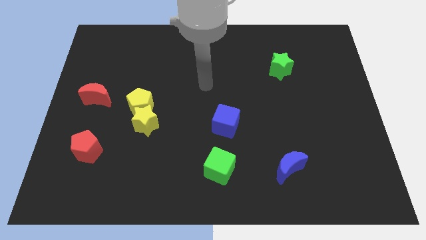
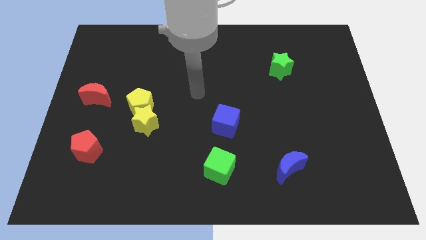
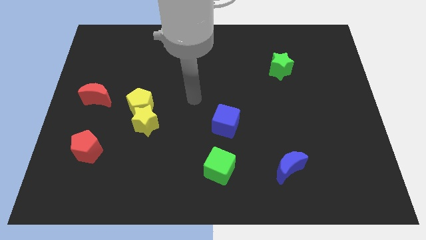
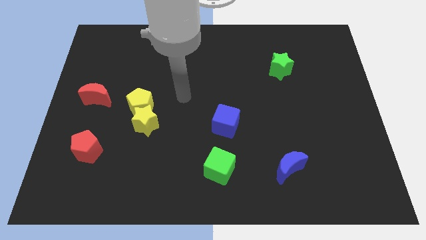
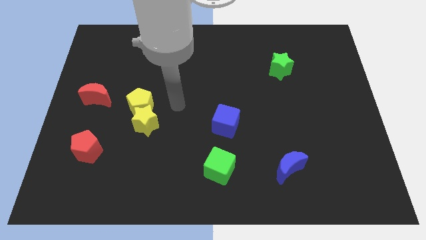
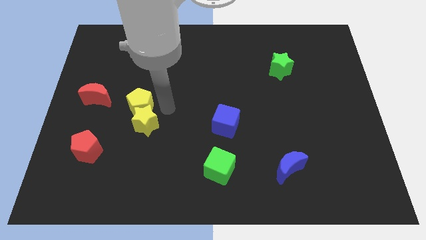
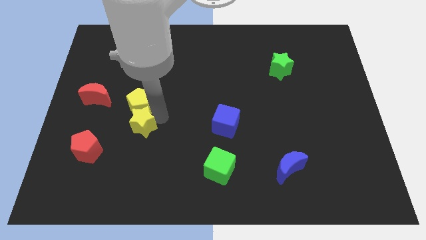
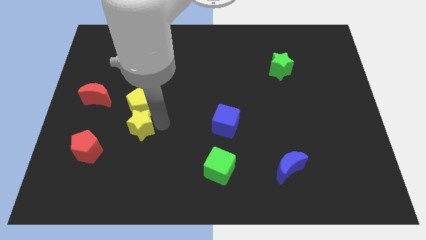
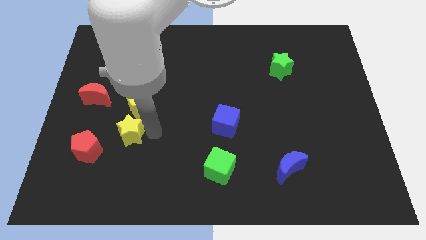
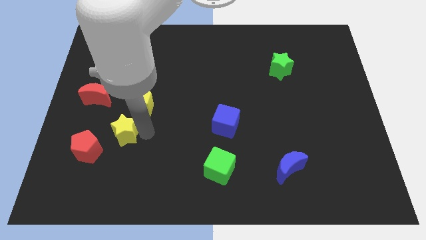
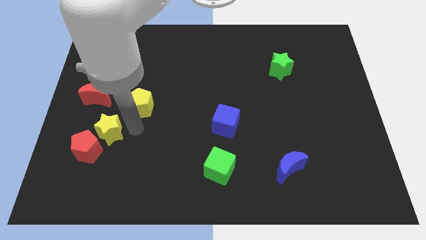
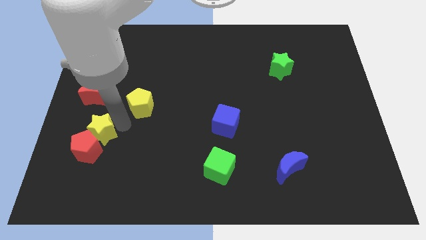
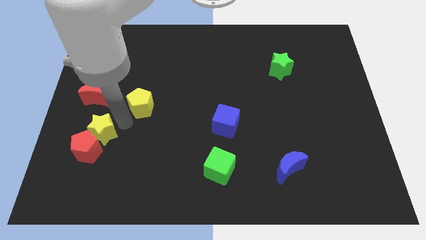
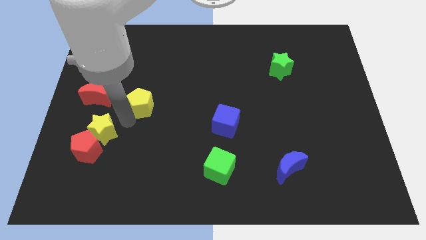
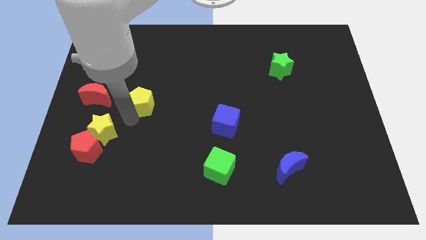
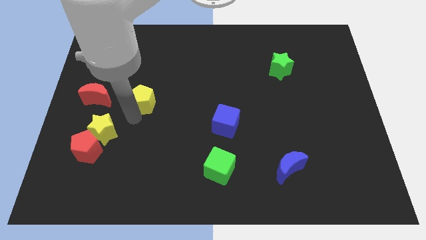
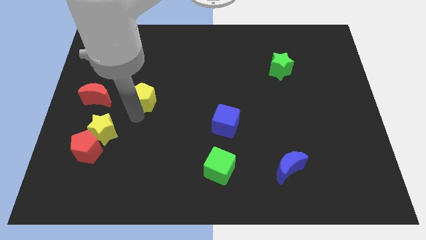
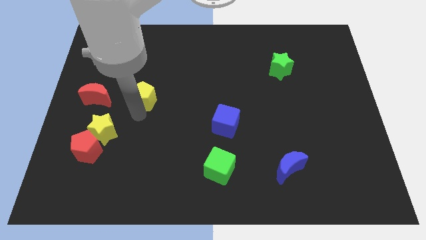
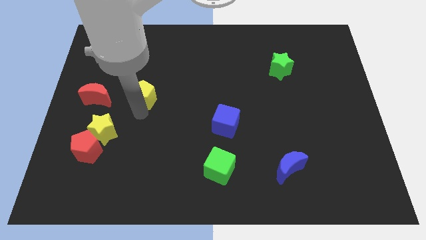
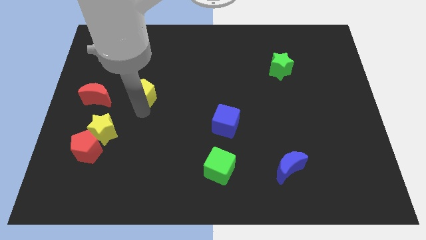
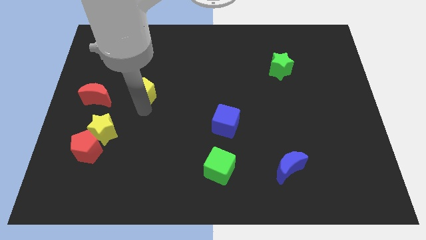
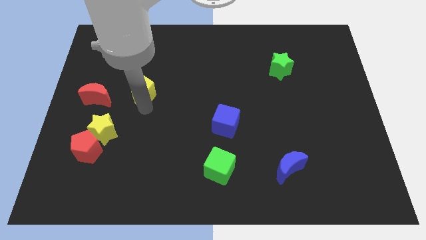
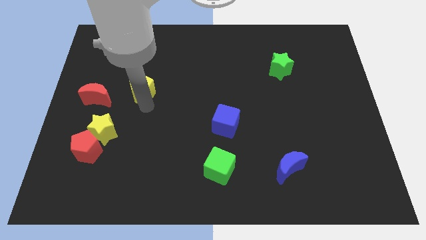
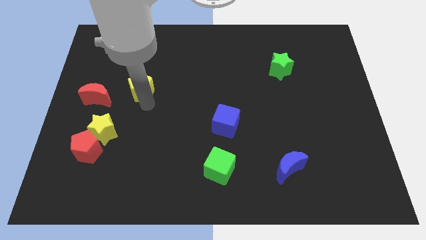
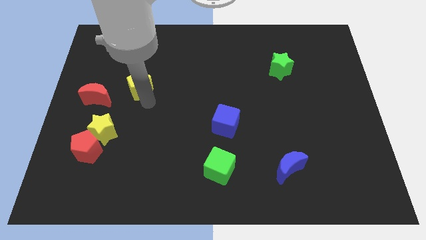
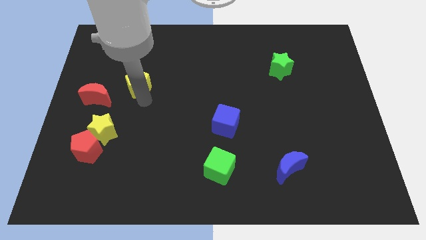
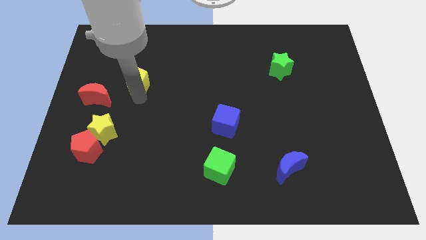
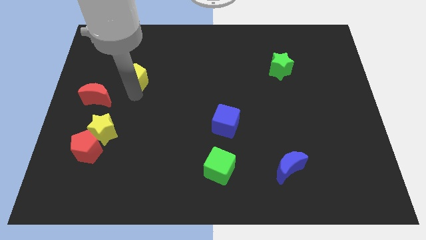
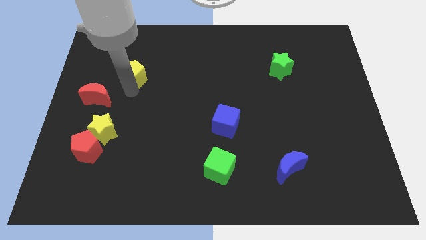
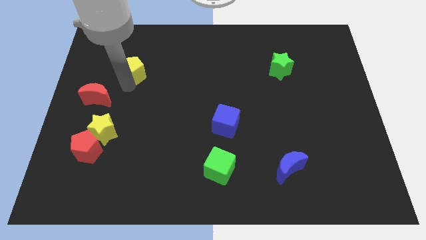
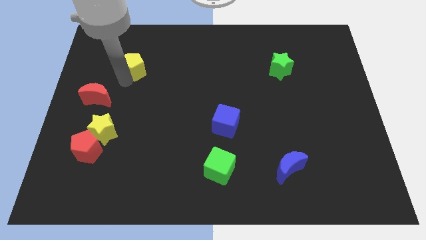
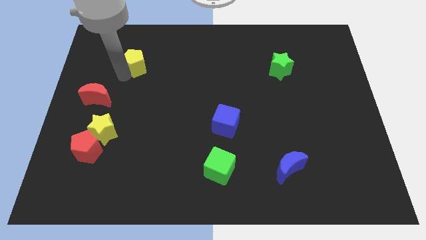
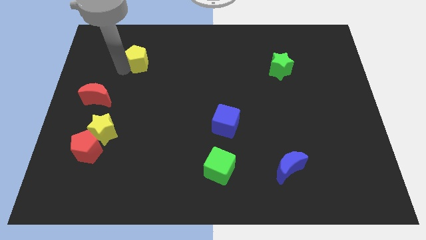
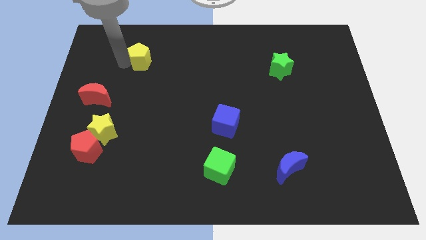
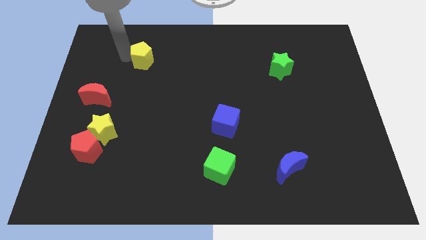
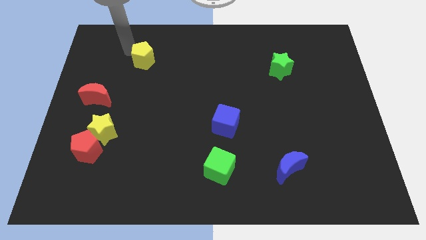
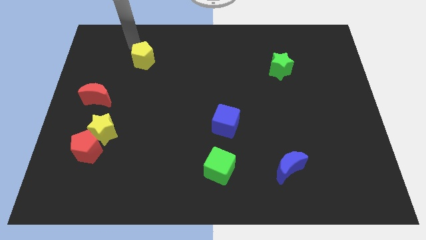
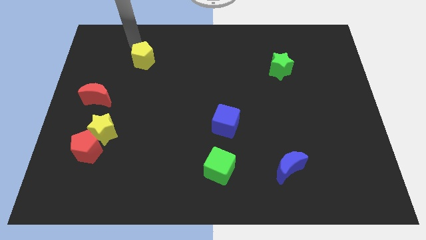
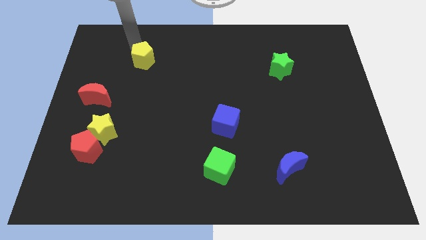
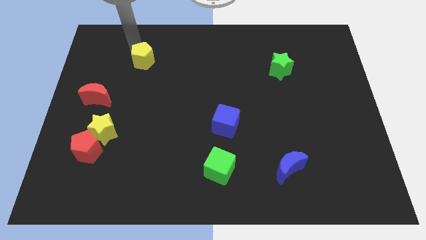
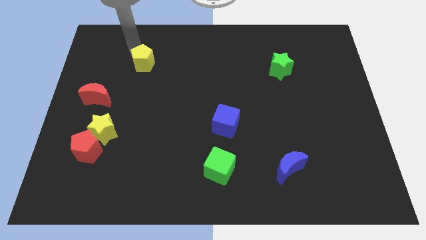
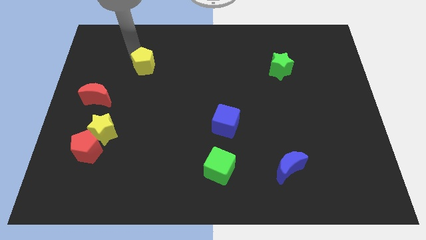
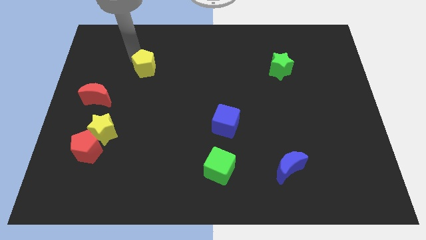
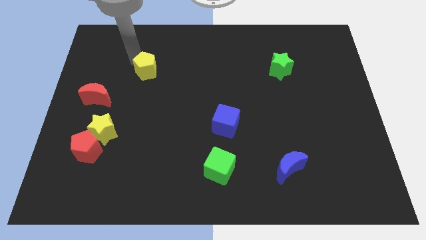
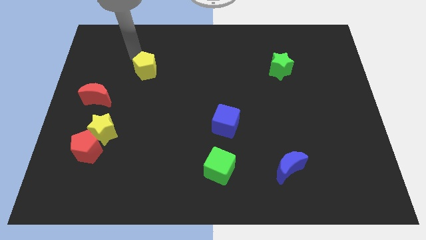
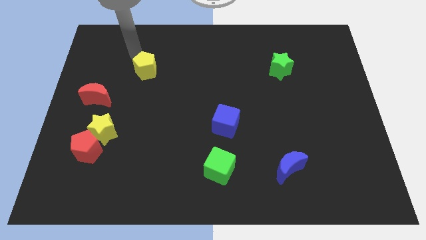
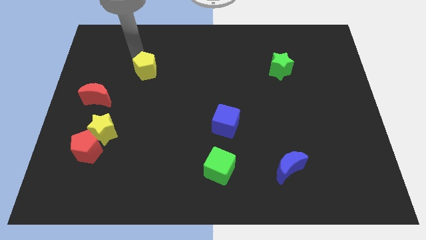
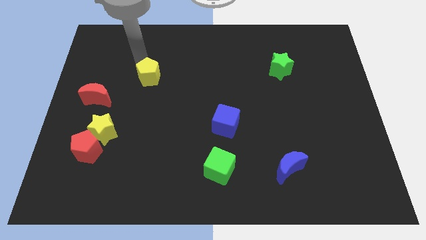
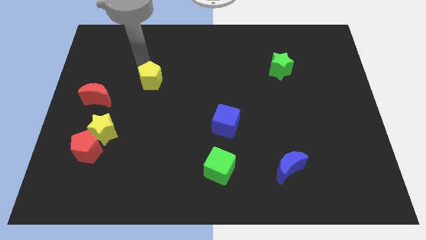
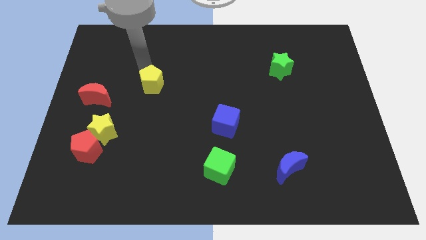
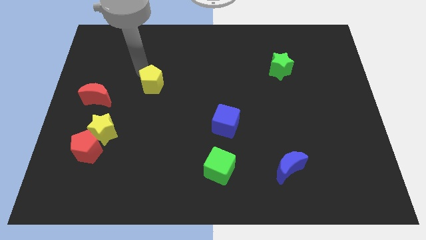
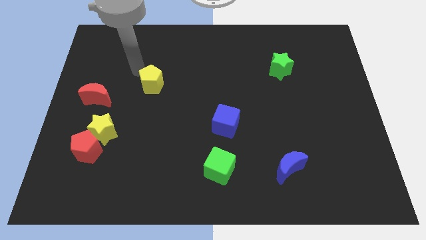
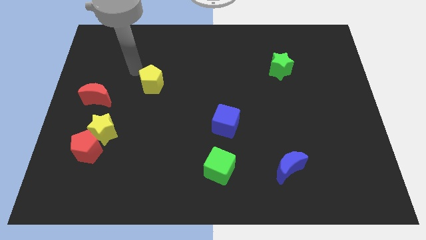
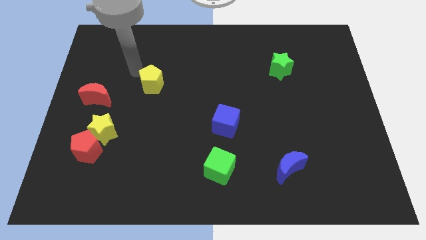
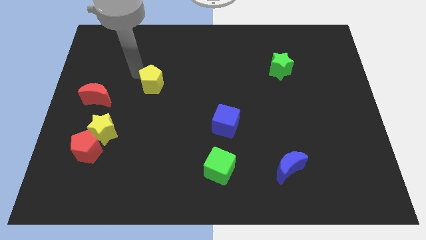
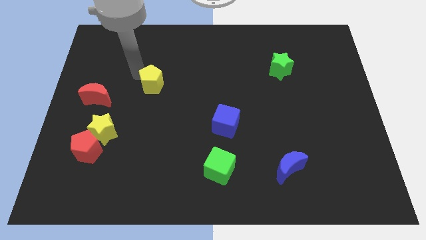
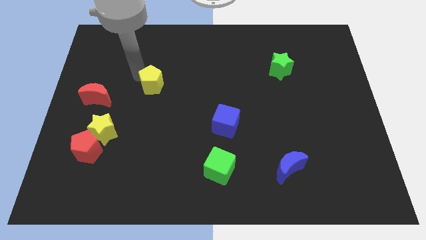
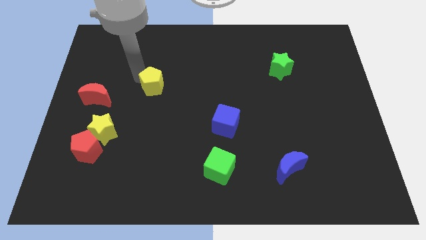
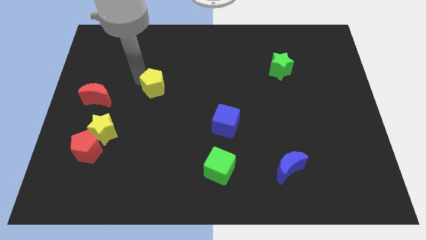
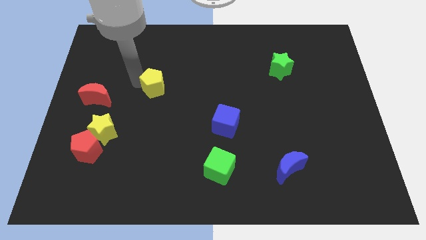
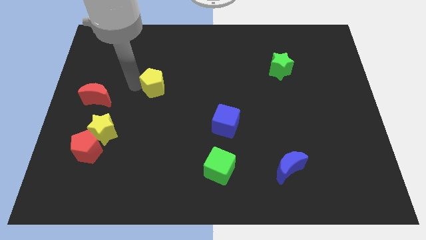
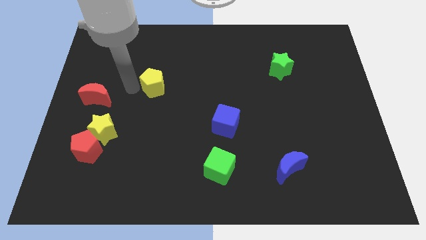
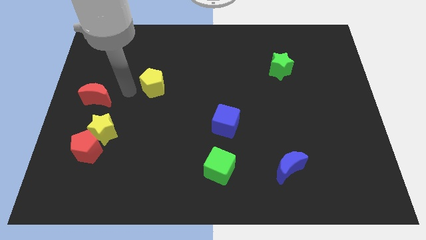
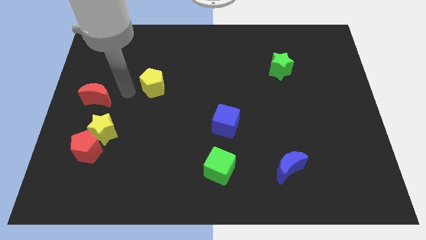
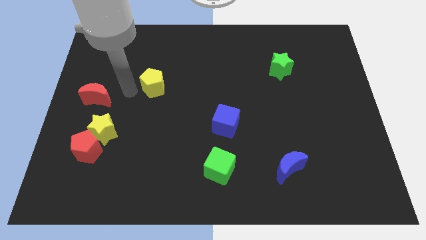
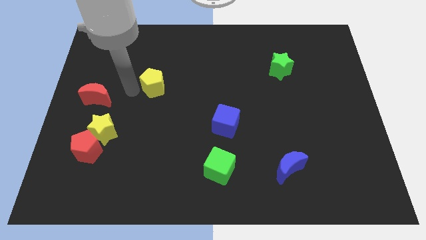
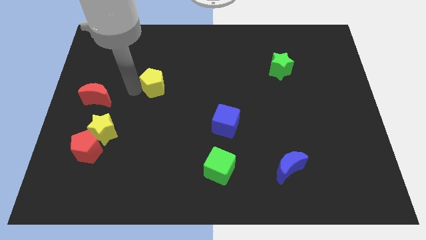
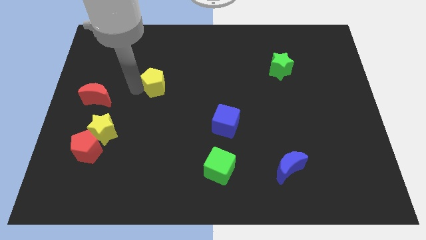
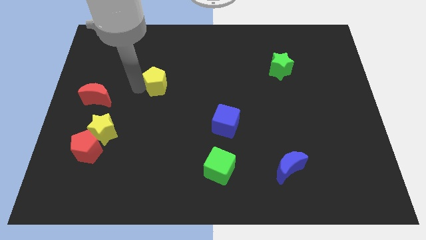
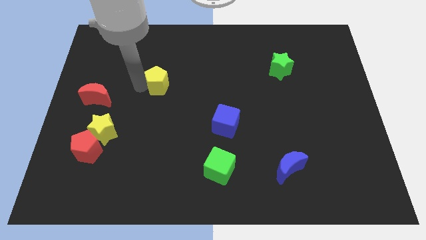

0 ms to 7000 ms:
slightly move the yellow pentagon diagonally upwards and to the right

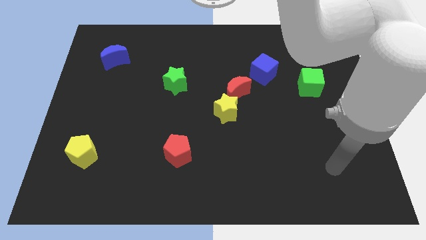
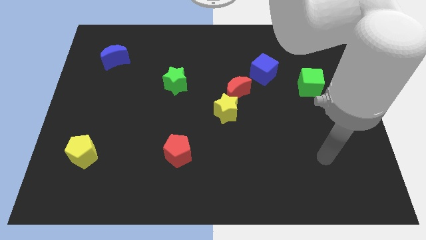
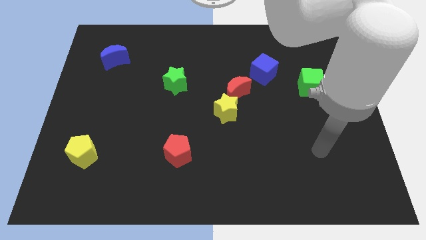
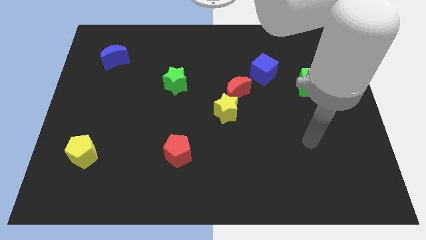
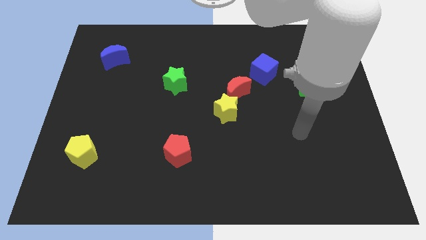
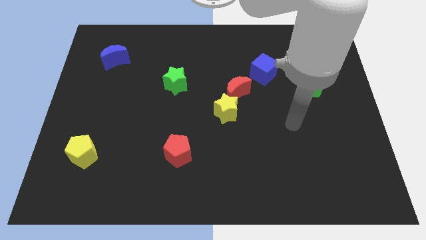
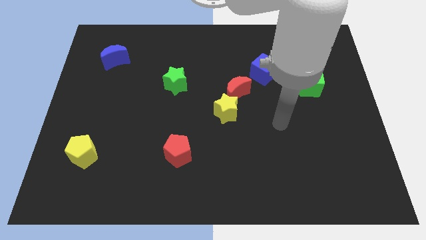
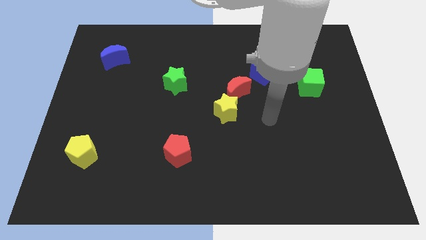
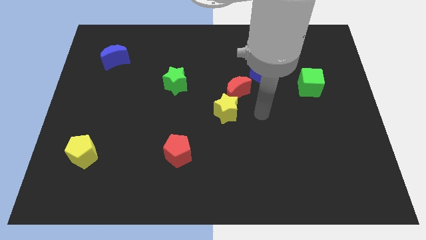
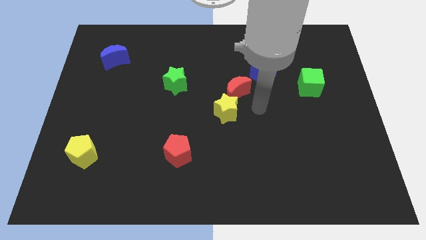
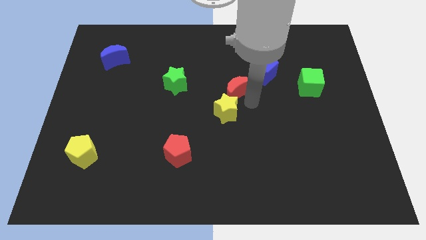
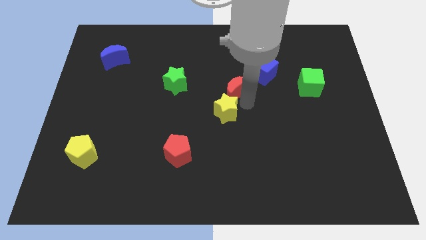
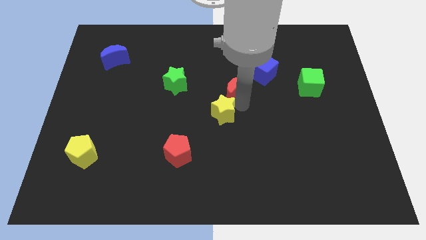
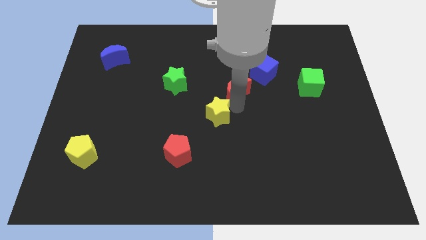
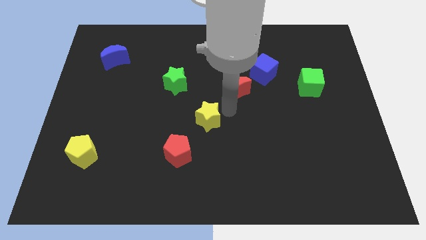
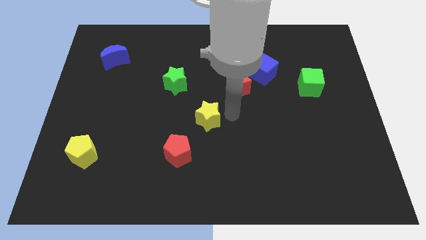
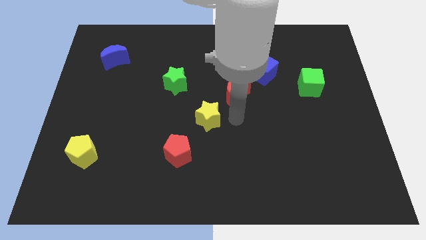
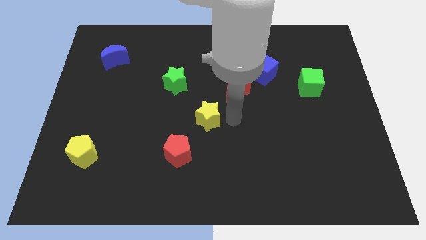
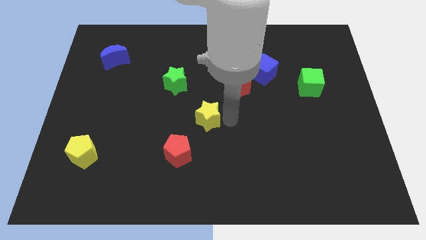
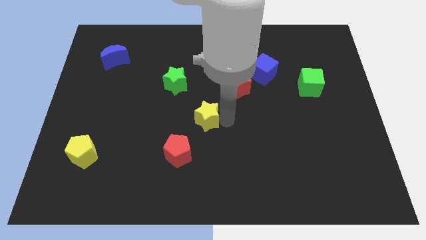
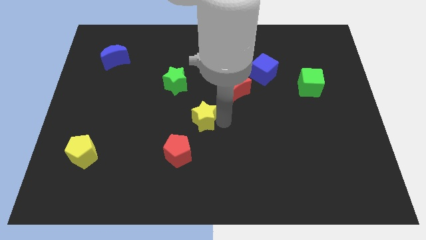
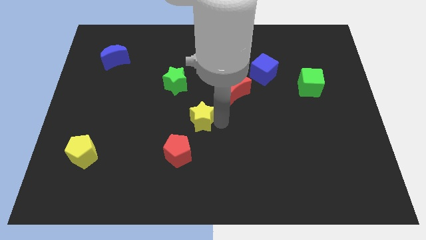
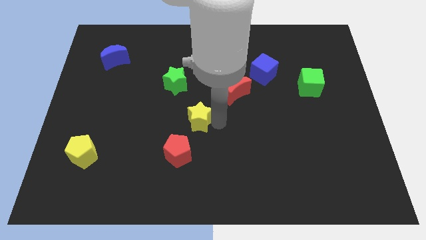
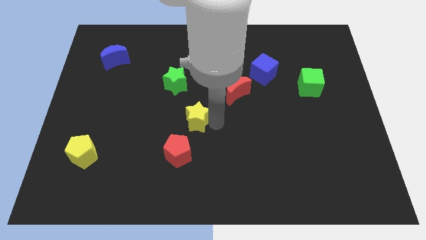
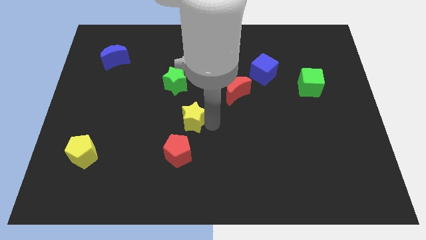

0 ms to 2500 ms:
slightly slide the yellow star left
